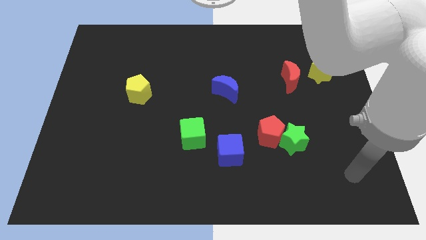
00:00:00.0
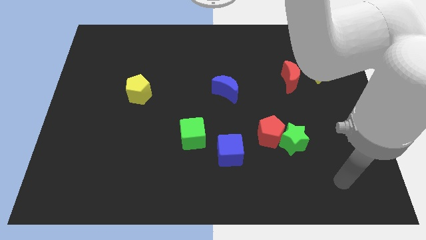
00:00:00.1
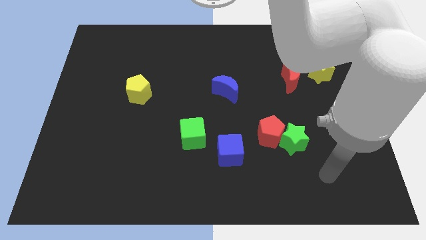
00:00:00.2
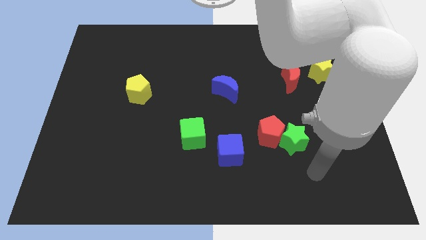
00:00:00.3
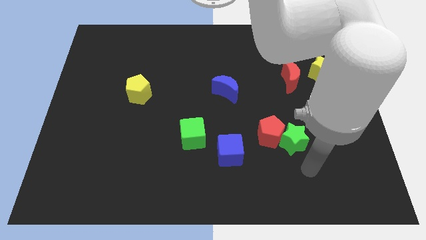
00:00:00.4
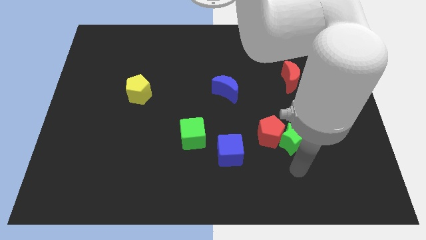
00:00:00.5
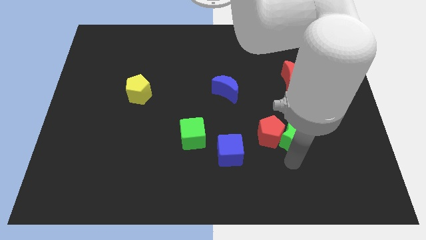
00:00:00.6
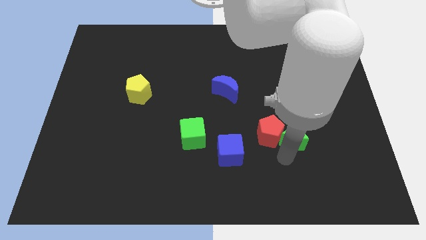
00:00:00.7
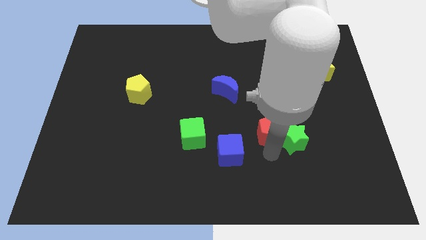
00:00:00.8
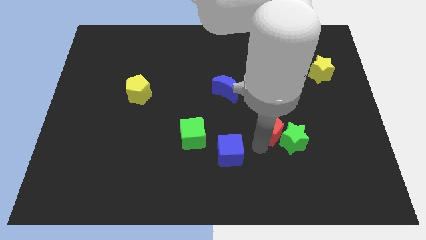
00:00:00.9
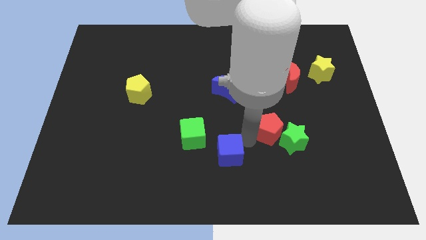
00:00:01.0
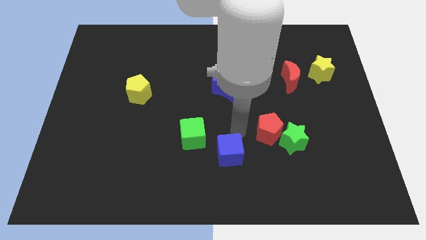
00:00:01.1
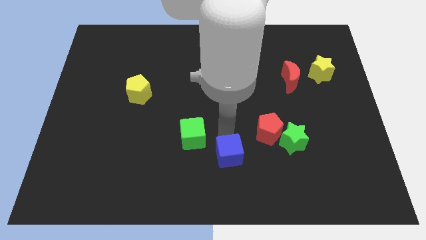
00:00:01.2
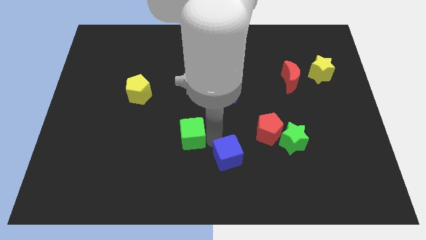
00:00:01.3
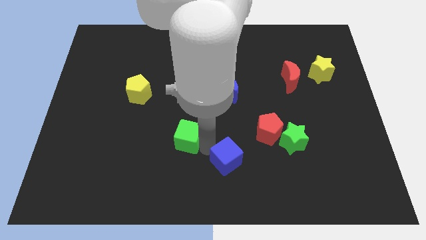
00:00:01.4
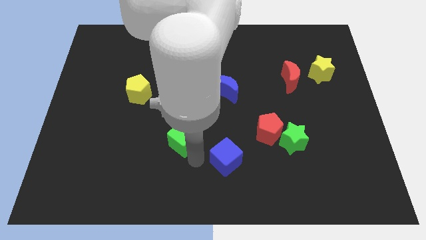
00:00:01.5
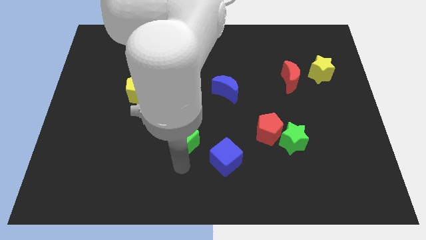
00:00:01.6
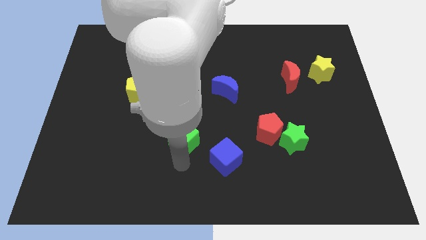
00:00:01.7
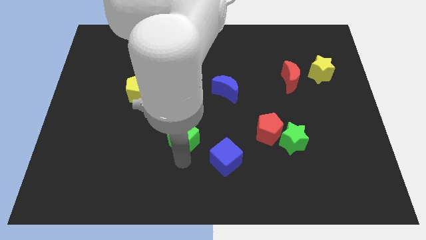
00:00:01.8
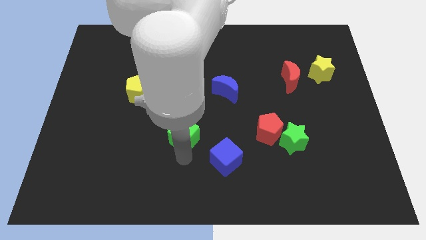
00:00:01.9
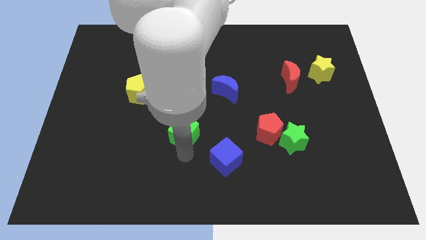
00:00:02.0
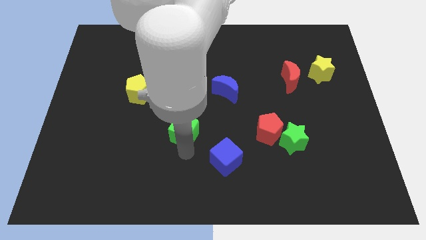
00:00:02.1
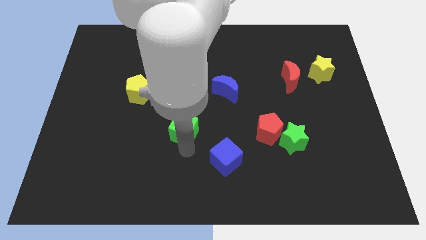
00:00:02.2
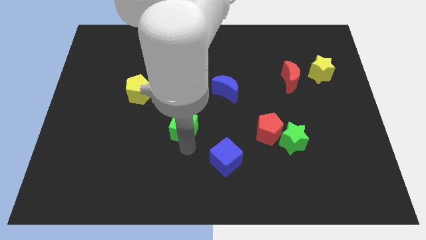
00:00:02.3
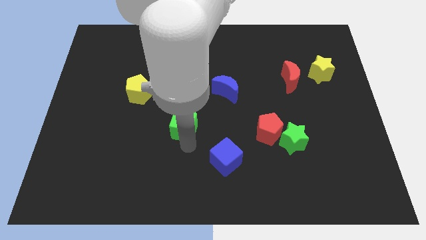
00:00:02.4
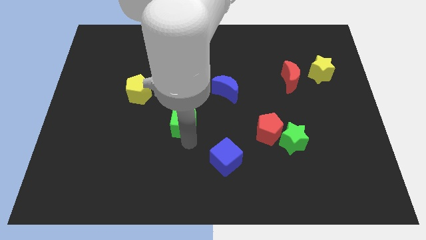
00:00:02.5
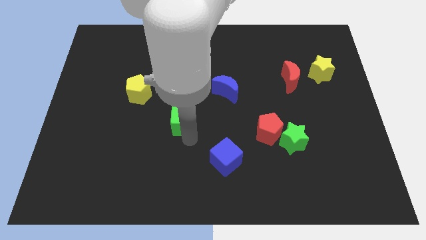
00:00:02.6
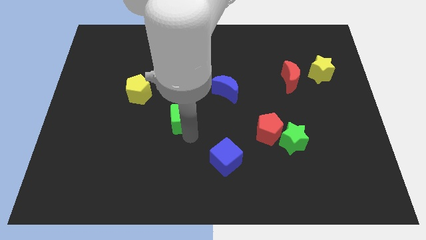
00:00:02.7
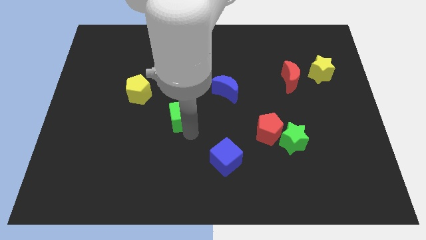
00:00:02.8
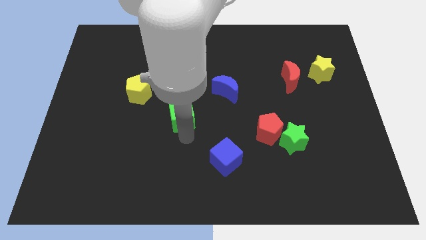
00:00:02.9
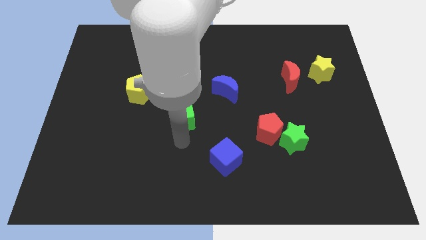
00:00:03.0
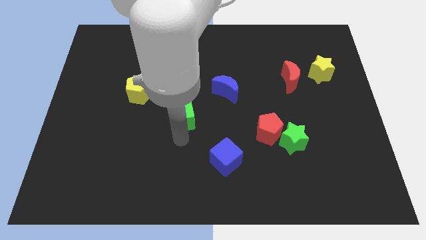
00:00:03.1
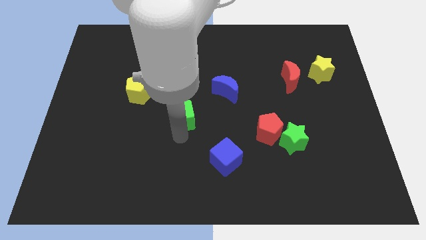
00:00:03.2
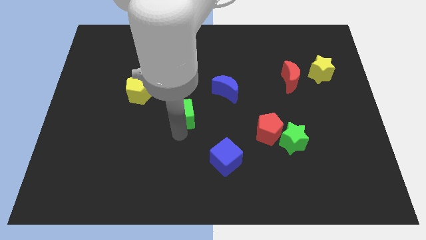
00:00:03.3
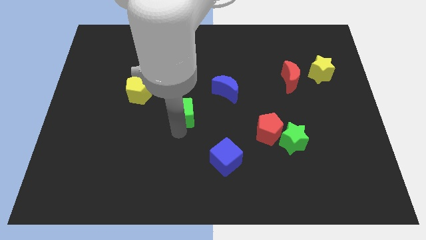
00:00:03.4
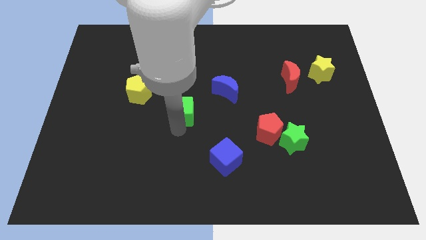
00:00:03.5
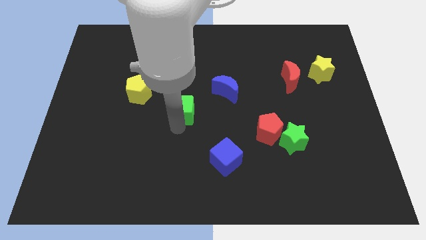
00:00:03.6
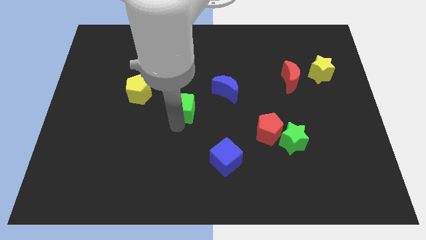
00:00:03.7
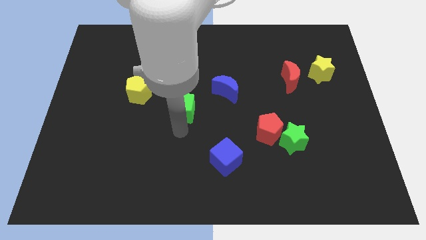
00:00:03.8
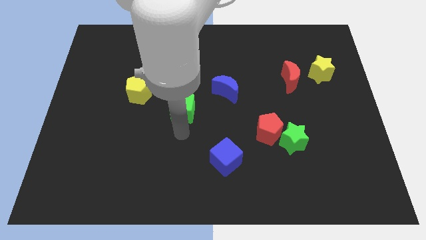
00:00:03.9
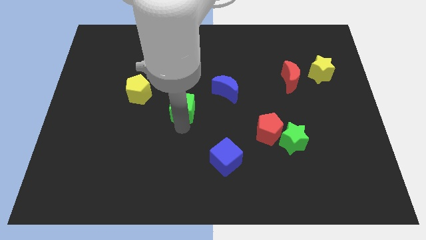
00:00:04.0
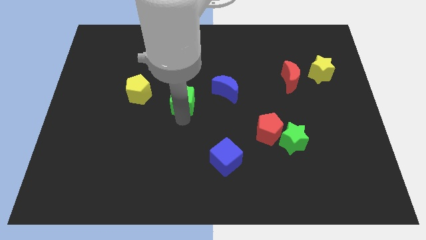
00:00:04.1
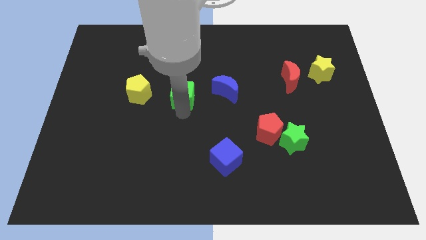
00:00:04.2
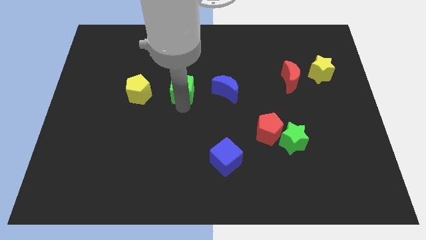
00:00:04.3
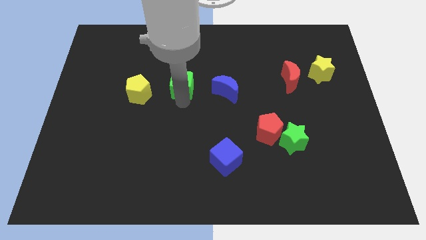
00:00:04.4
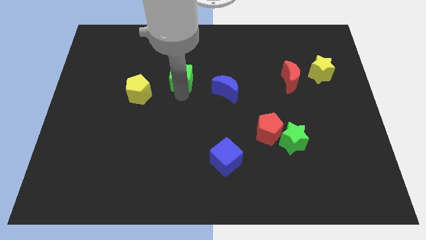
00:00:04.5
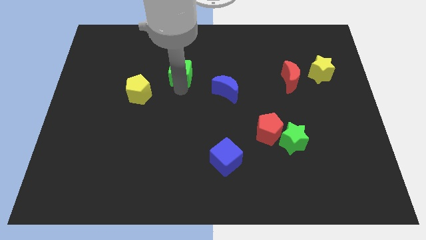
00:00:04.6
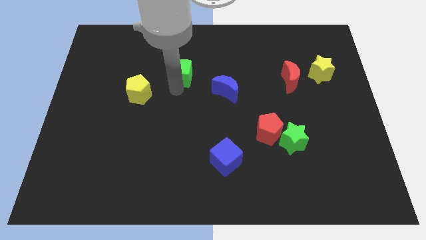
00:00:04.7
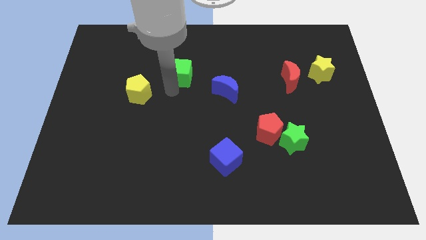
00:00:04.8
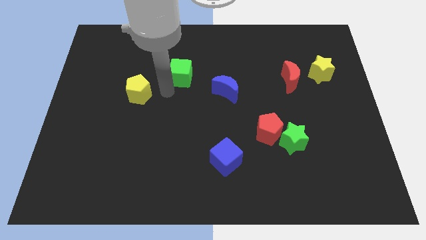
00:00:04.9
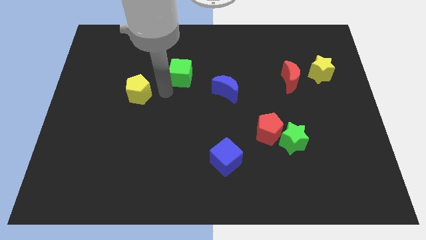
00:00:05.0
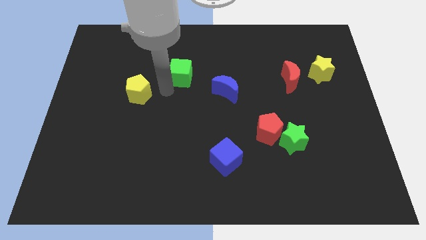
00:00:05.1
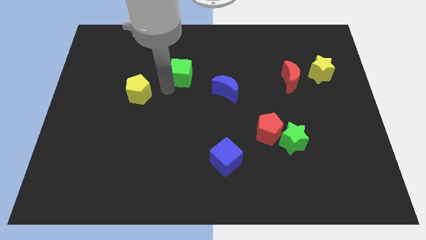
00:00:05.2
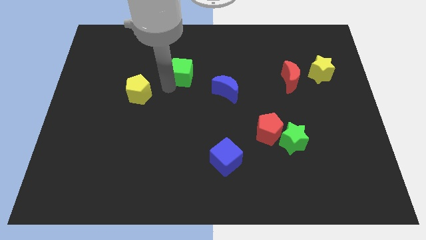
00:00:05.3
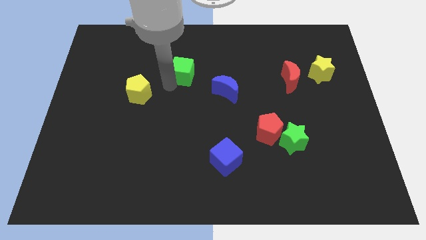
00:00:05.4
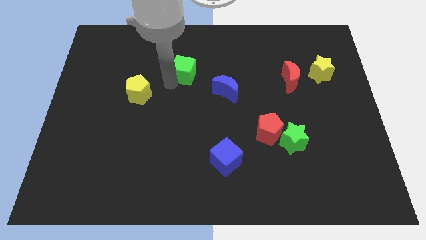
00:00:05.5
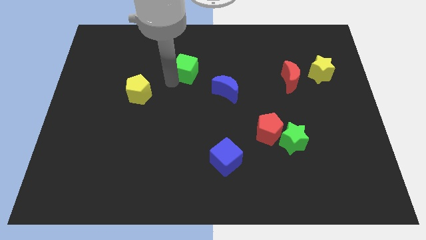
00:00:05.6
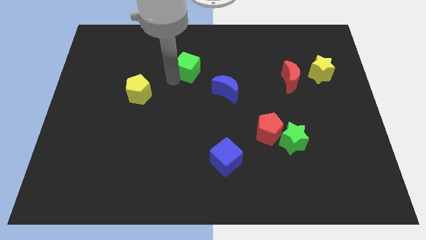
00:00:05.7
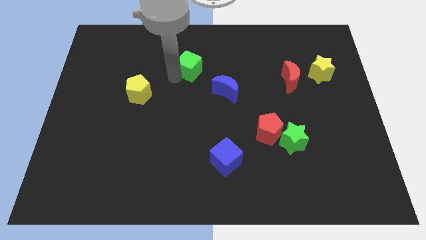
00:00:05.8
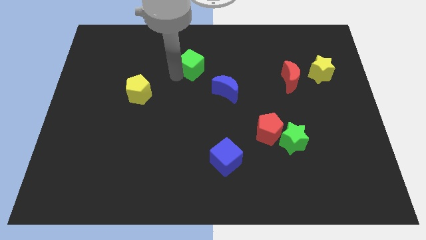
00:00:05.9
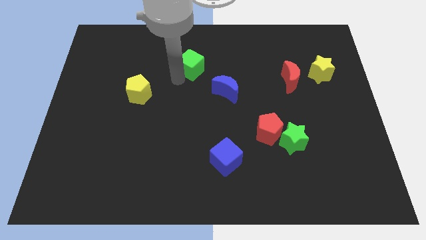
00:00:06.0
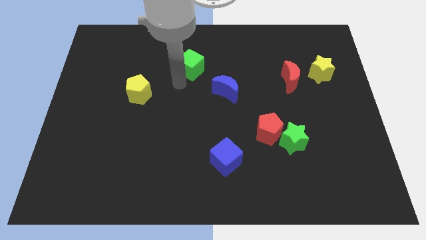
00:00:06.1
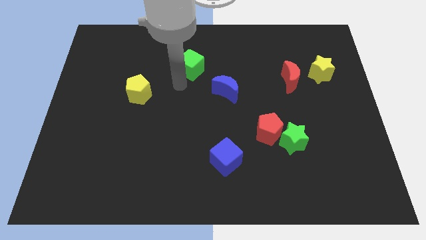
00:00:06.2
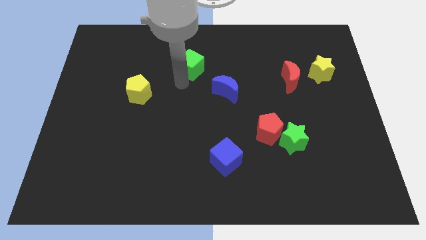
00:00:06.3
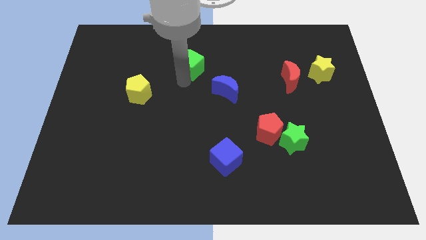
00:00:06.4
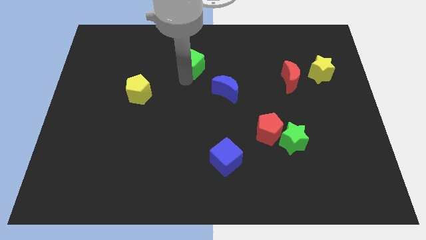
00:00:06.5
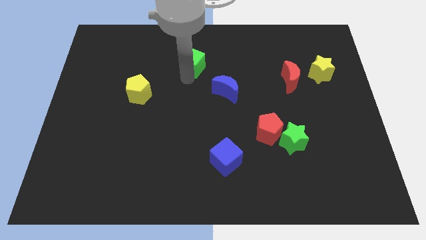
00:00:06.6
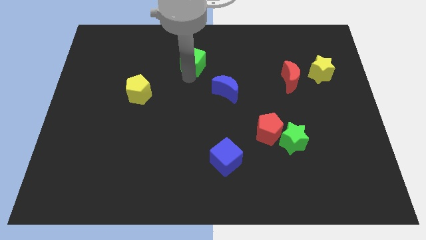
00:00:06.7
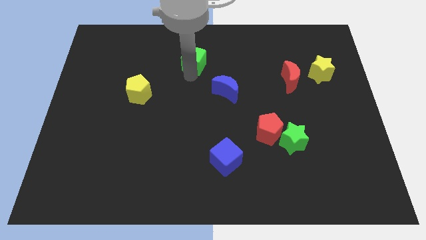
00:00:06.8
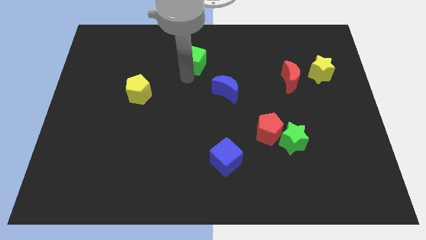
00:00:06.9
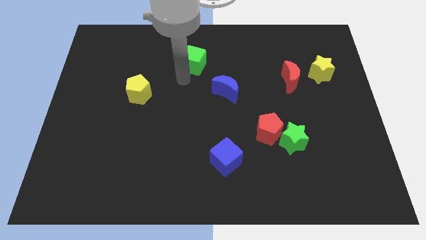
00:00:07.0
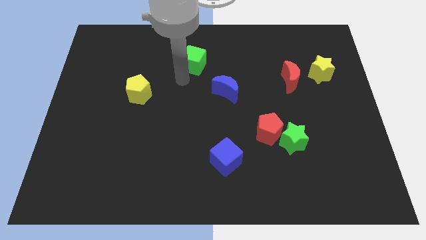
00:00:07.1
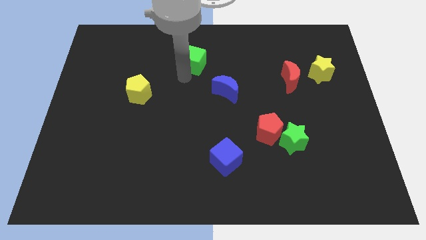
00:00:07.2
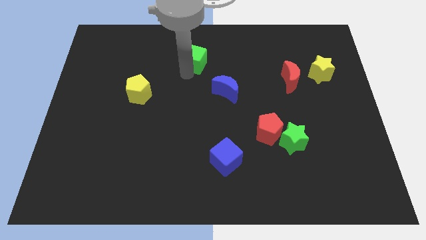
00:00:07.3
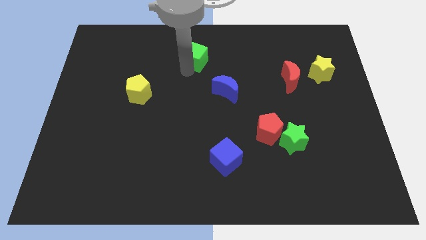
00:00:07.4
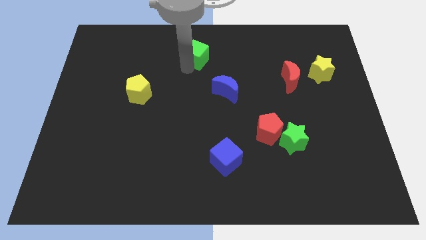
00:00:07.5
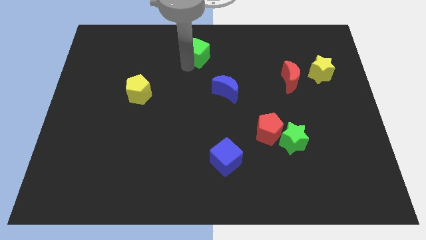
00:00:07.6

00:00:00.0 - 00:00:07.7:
slide the green cube to the towards your base

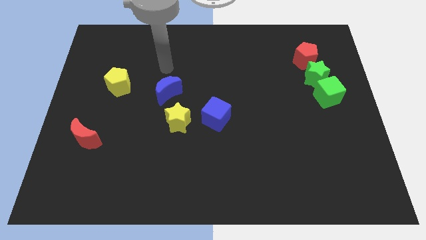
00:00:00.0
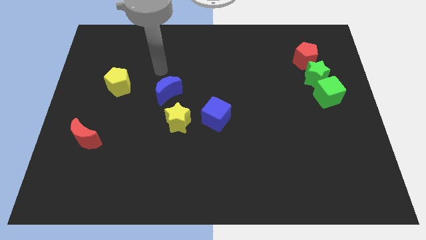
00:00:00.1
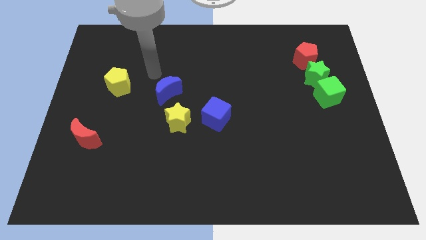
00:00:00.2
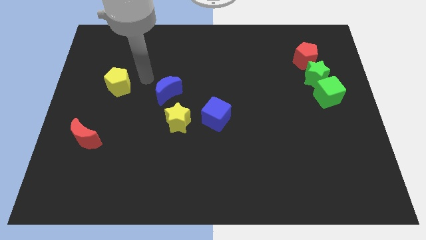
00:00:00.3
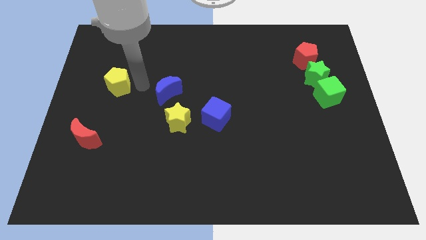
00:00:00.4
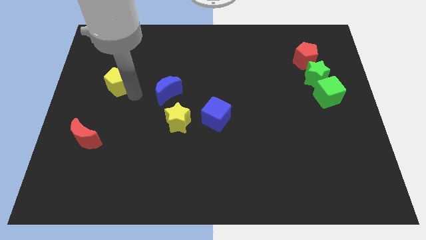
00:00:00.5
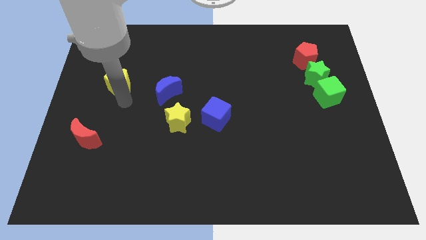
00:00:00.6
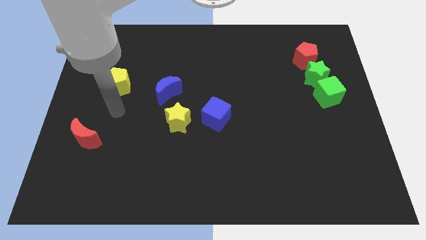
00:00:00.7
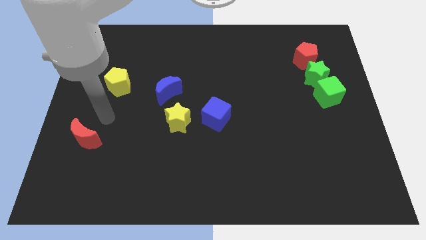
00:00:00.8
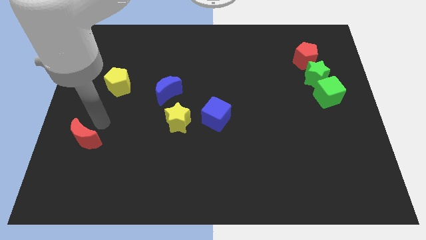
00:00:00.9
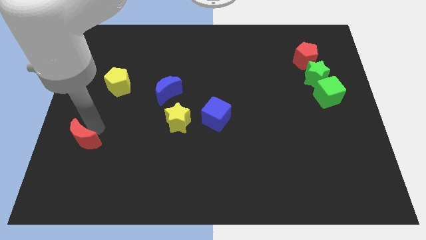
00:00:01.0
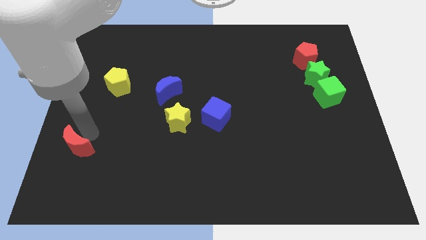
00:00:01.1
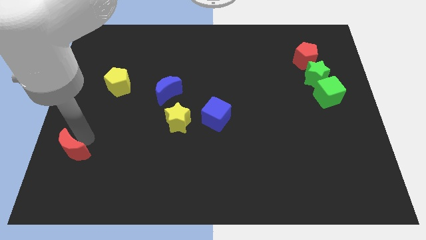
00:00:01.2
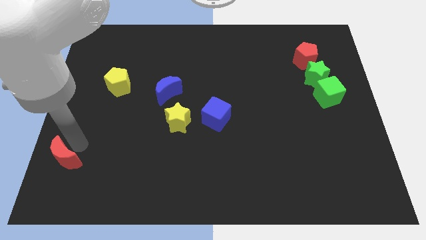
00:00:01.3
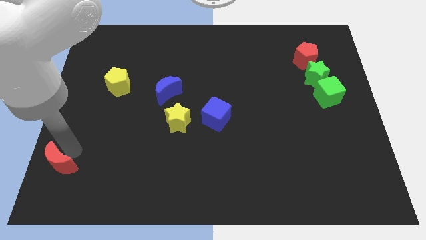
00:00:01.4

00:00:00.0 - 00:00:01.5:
push the red moon to the bottom left
